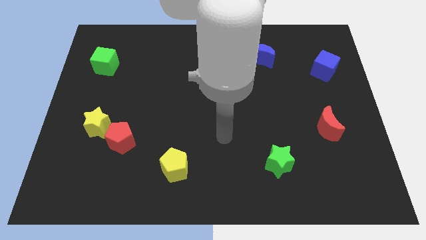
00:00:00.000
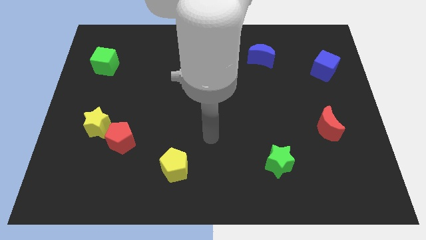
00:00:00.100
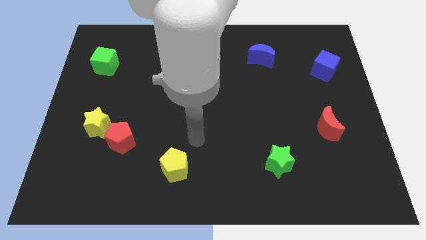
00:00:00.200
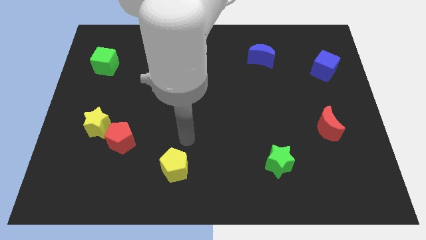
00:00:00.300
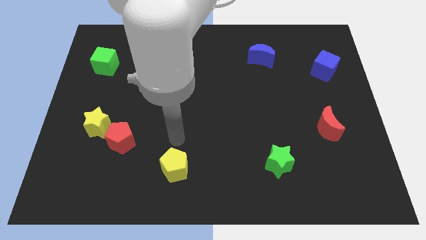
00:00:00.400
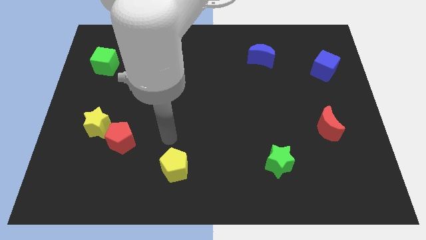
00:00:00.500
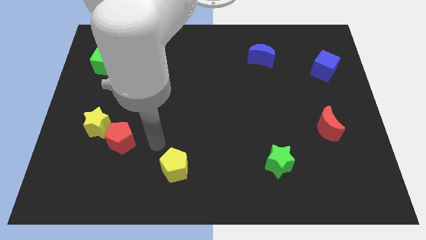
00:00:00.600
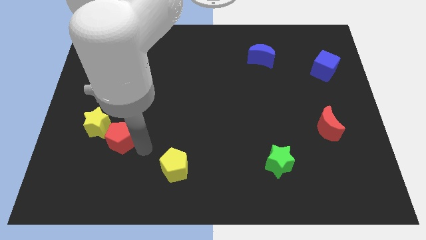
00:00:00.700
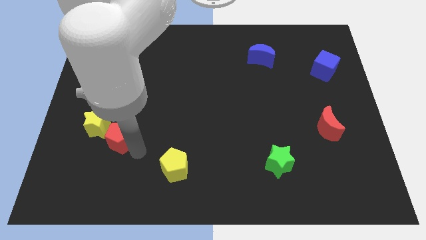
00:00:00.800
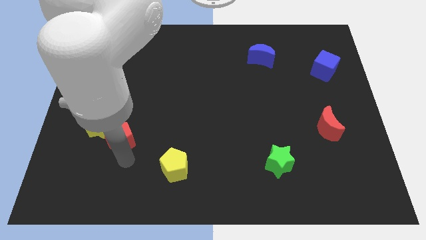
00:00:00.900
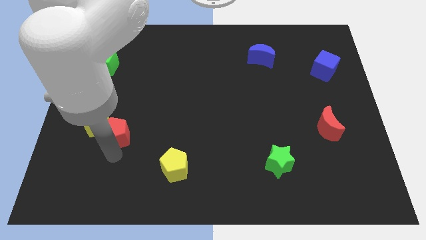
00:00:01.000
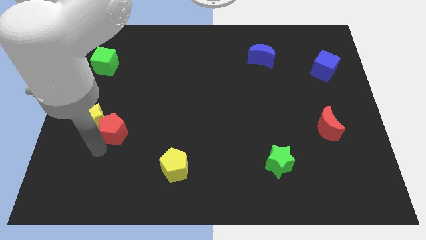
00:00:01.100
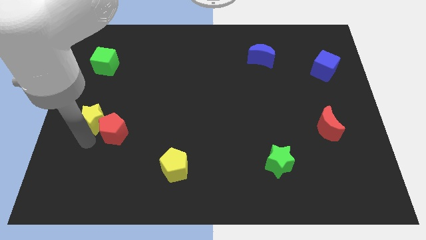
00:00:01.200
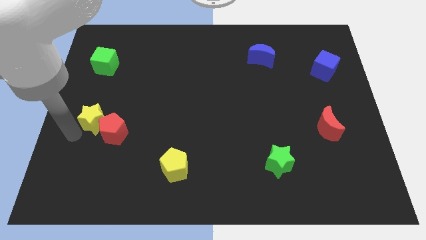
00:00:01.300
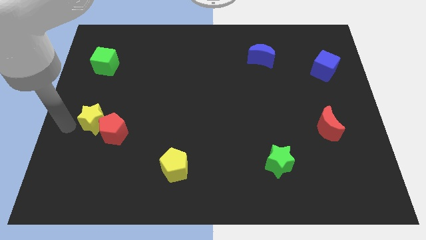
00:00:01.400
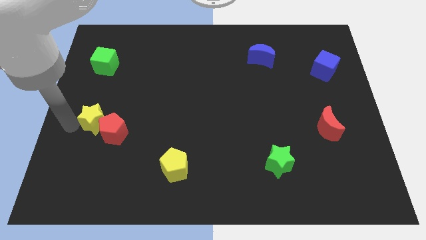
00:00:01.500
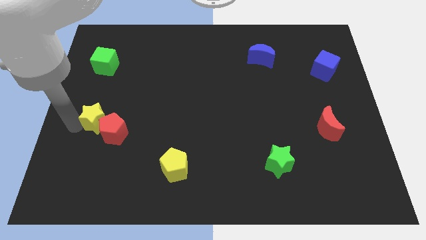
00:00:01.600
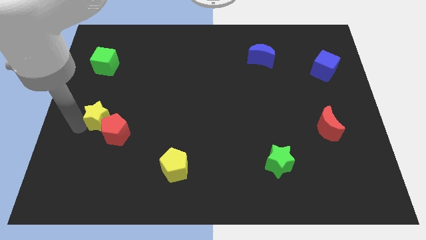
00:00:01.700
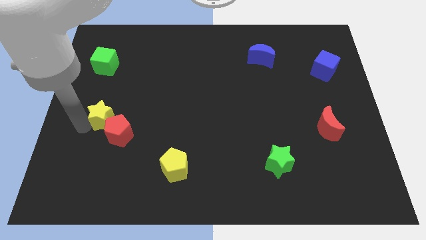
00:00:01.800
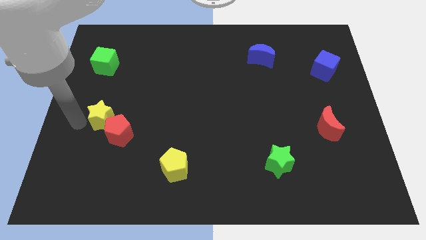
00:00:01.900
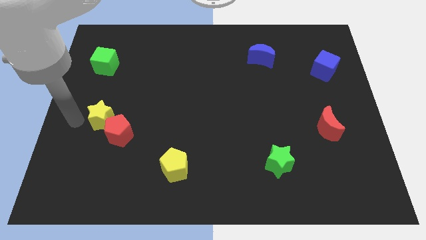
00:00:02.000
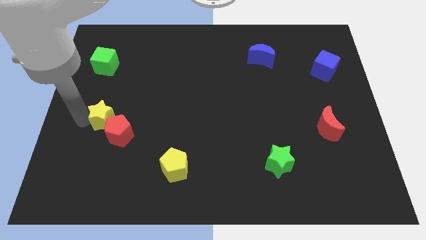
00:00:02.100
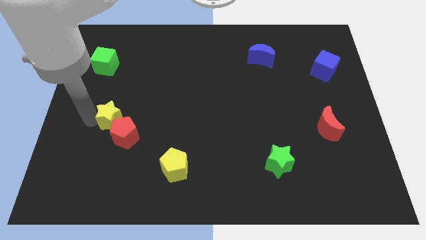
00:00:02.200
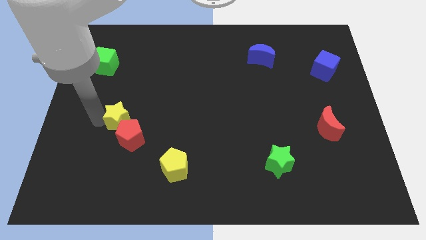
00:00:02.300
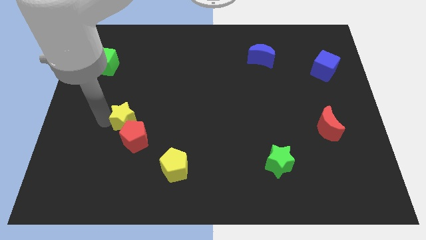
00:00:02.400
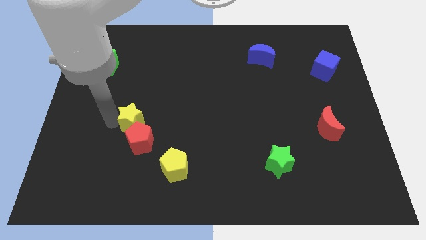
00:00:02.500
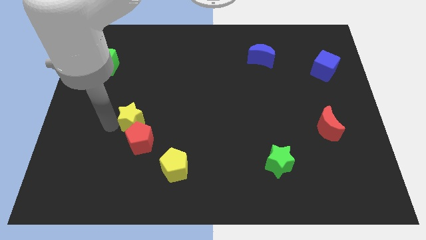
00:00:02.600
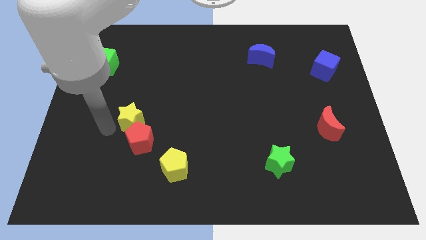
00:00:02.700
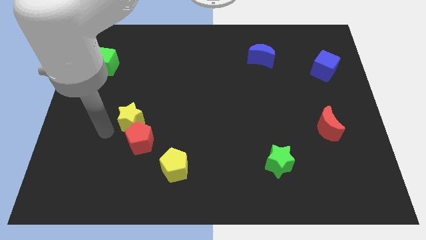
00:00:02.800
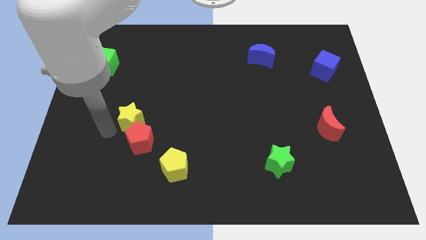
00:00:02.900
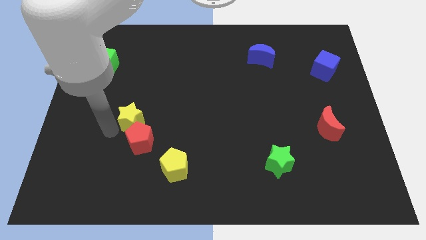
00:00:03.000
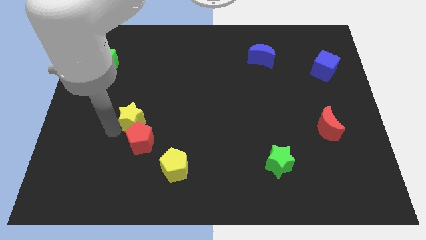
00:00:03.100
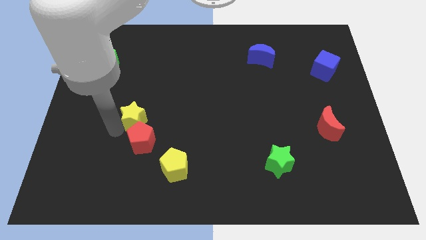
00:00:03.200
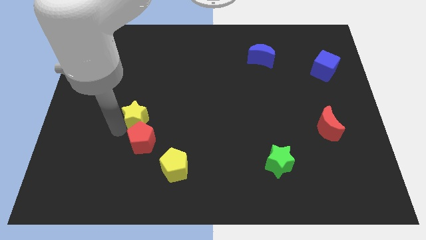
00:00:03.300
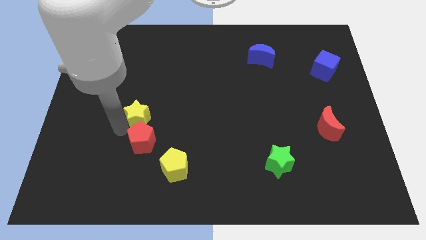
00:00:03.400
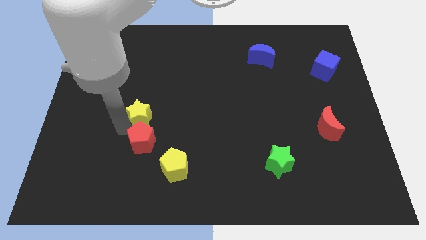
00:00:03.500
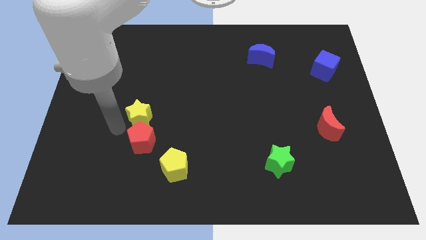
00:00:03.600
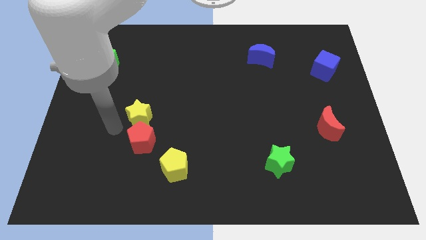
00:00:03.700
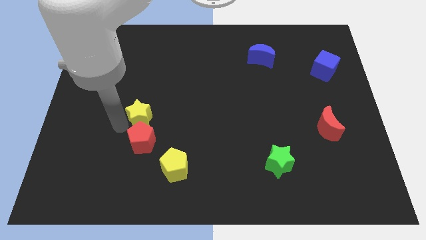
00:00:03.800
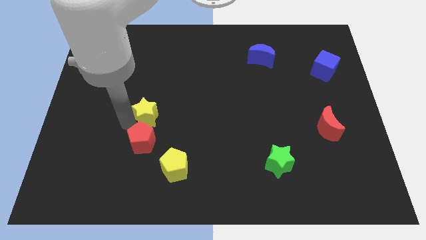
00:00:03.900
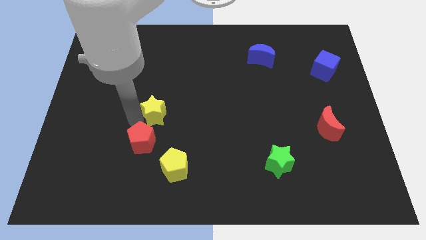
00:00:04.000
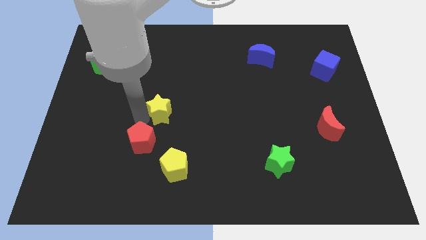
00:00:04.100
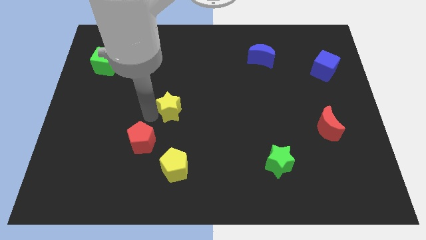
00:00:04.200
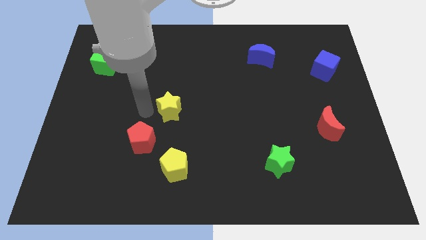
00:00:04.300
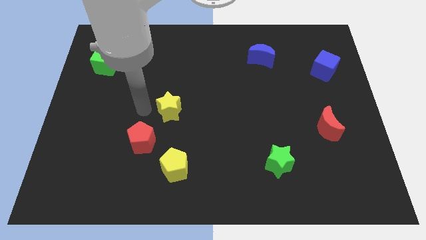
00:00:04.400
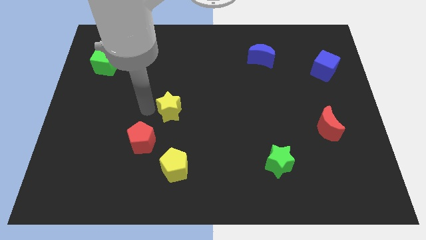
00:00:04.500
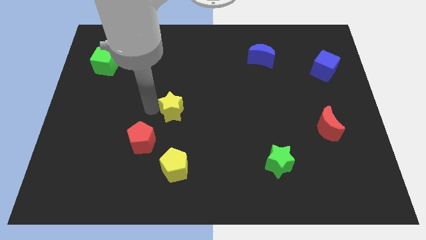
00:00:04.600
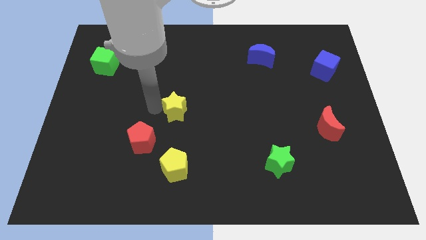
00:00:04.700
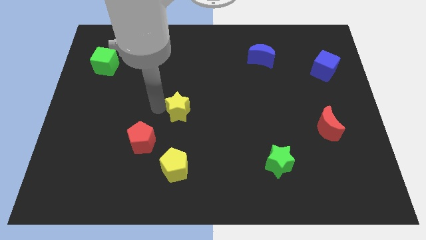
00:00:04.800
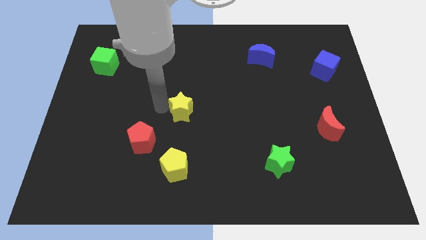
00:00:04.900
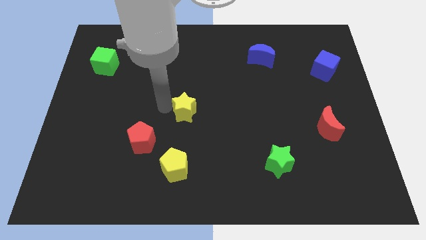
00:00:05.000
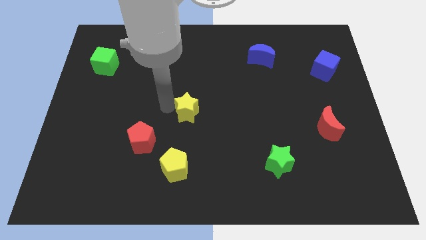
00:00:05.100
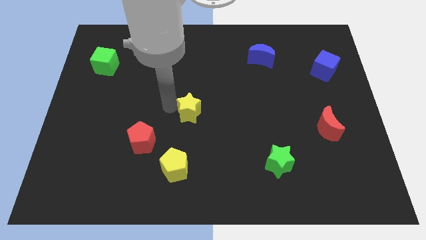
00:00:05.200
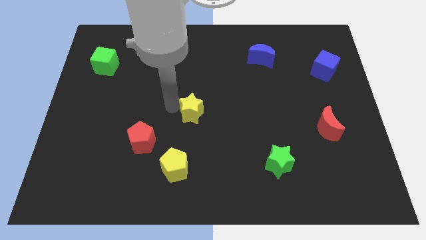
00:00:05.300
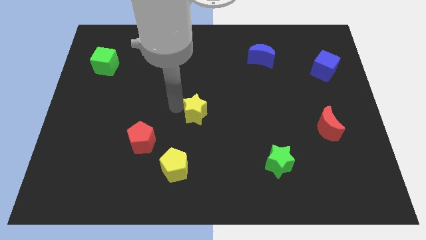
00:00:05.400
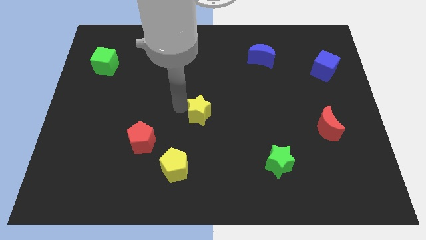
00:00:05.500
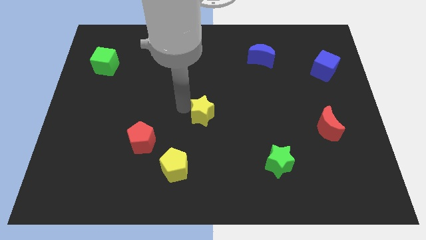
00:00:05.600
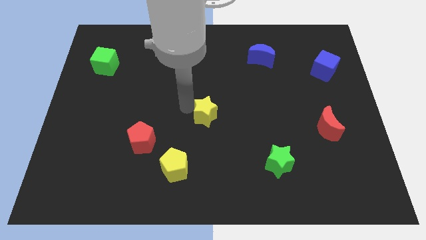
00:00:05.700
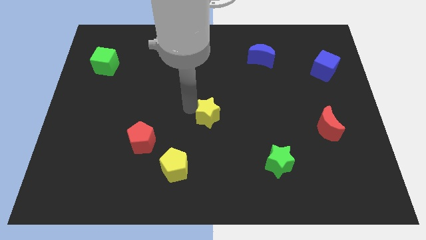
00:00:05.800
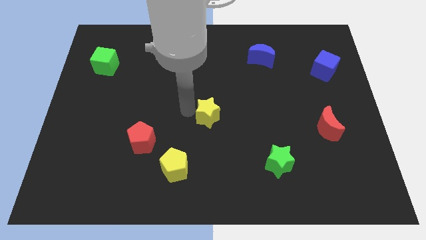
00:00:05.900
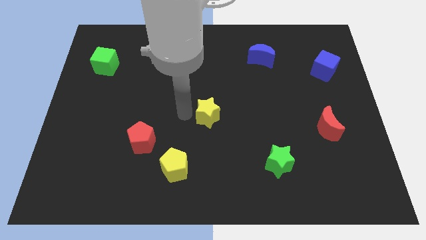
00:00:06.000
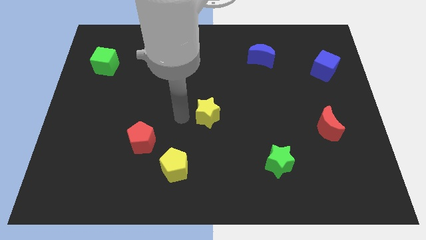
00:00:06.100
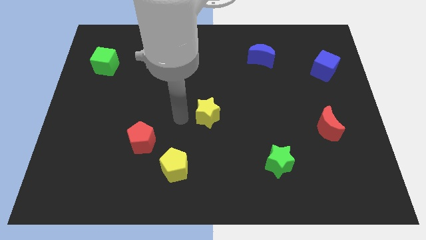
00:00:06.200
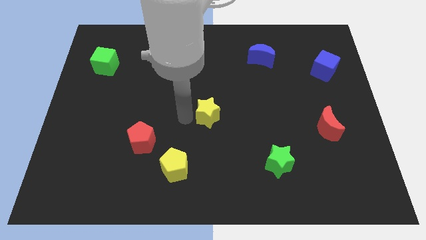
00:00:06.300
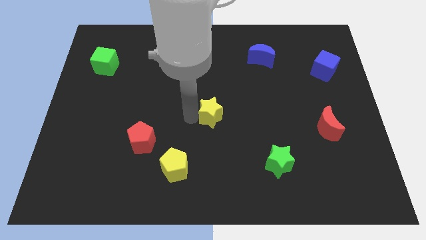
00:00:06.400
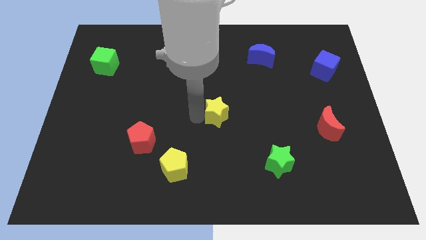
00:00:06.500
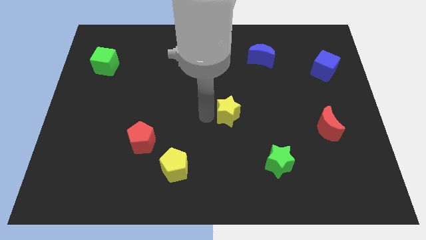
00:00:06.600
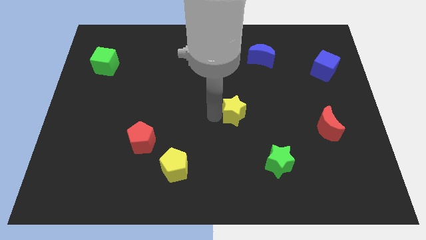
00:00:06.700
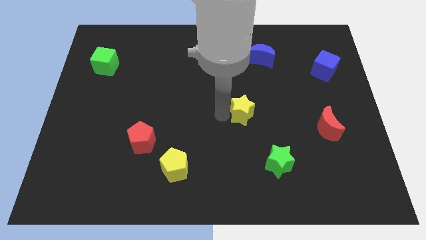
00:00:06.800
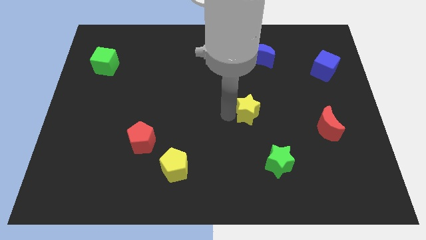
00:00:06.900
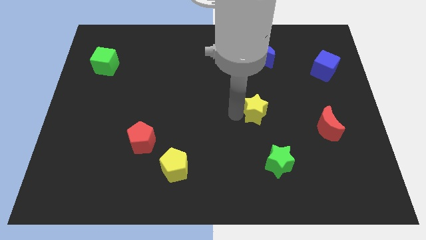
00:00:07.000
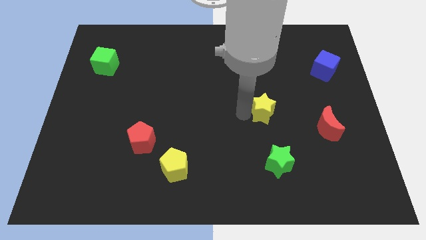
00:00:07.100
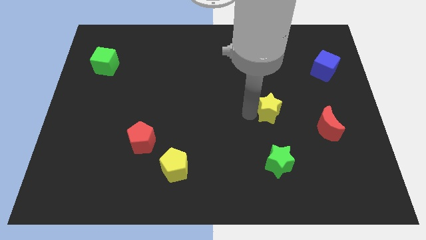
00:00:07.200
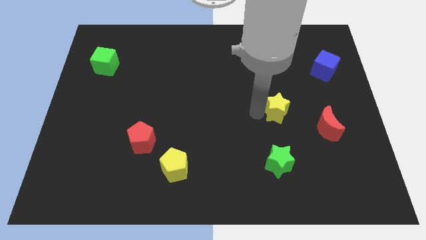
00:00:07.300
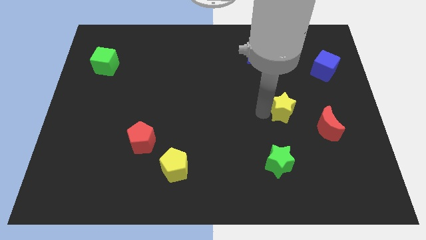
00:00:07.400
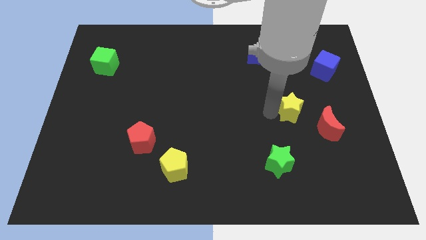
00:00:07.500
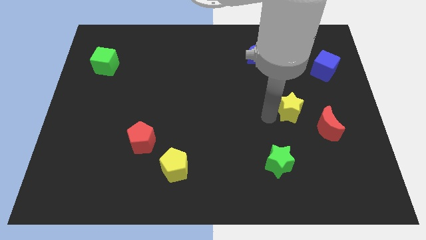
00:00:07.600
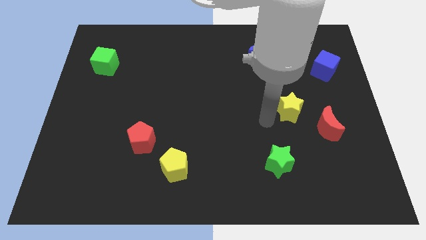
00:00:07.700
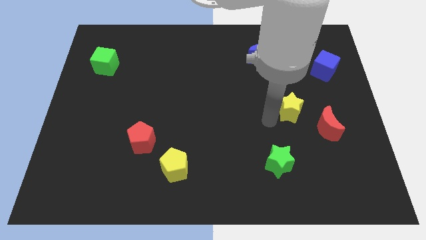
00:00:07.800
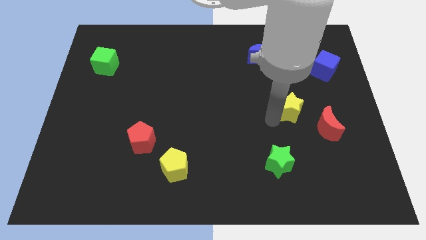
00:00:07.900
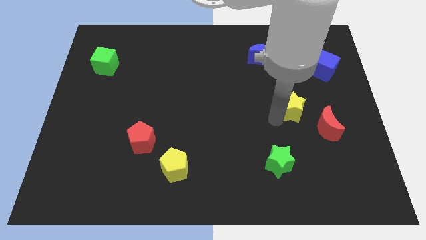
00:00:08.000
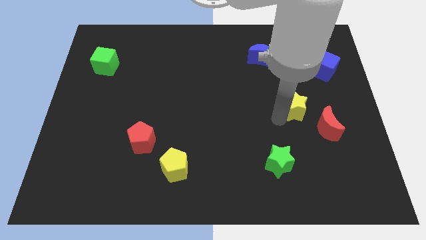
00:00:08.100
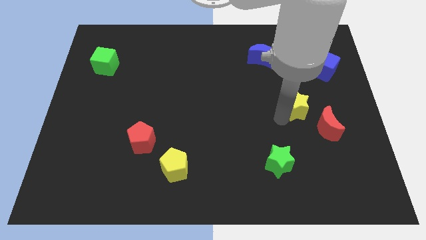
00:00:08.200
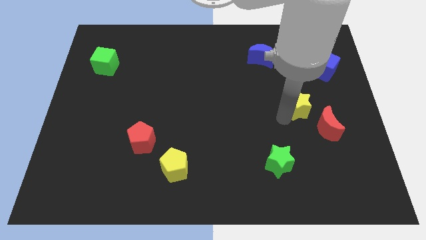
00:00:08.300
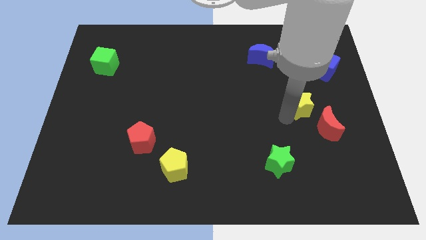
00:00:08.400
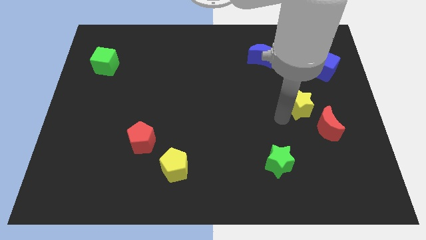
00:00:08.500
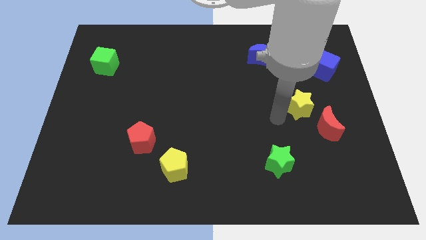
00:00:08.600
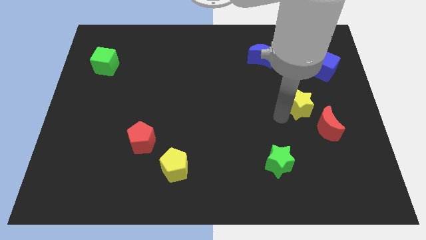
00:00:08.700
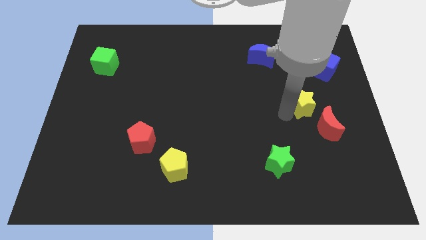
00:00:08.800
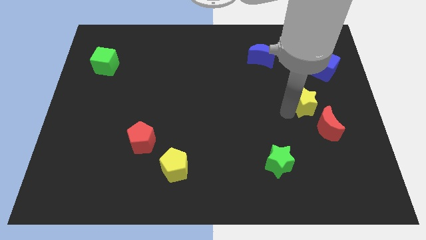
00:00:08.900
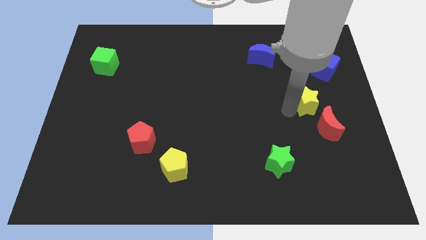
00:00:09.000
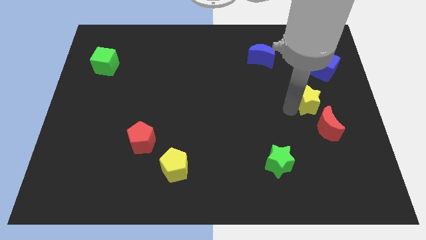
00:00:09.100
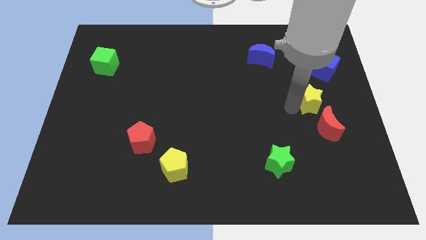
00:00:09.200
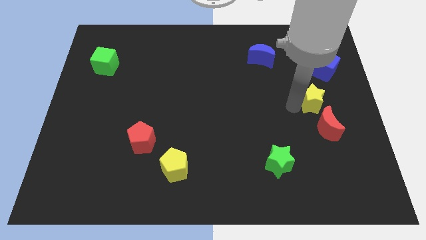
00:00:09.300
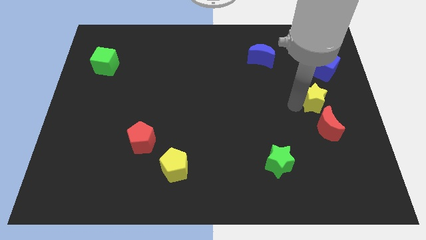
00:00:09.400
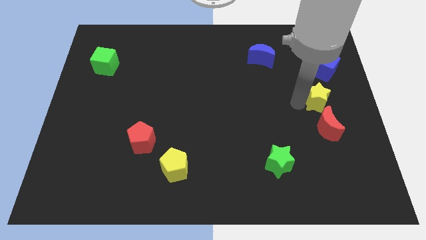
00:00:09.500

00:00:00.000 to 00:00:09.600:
slide the yellow star to the right side
